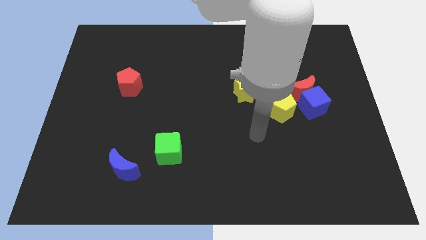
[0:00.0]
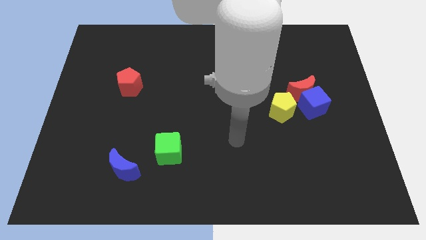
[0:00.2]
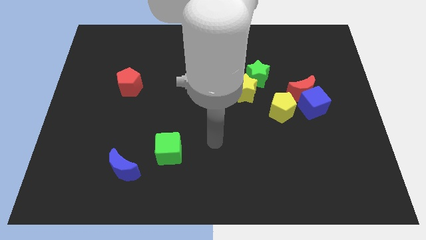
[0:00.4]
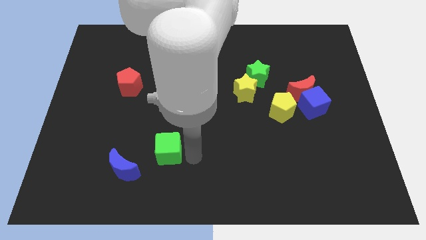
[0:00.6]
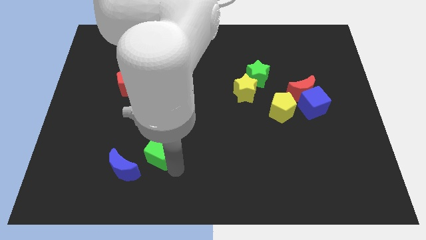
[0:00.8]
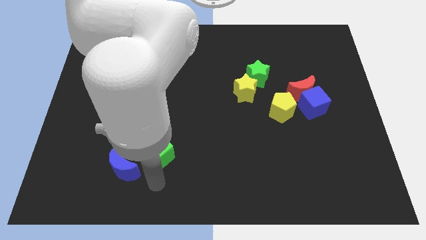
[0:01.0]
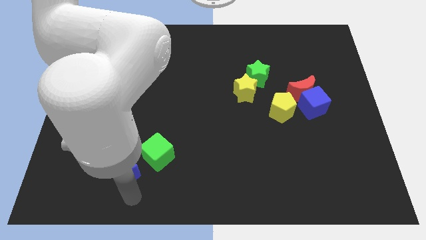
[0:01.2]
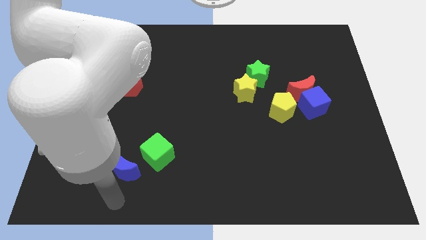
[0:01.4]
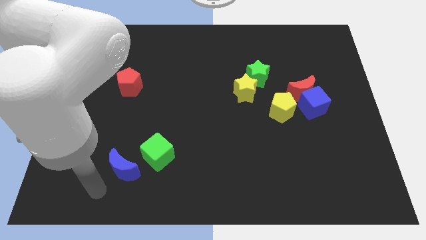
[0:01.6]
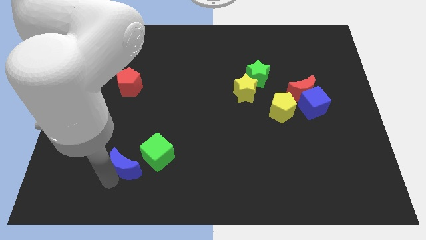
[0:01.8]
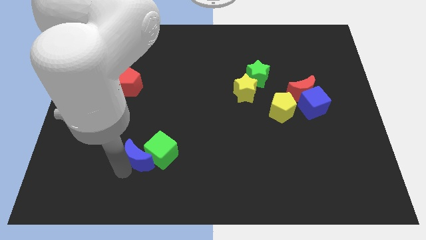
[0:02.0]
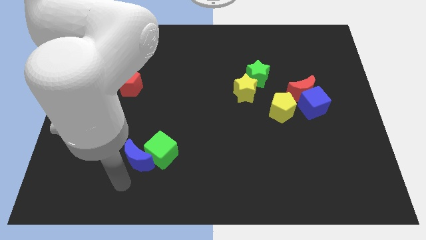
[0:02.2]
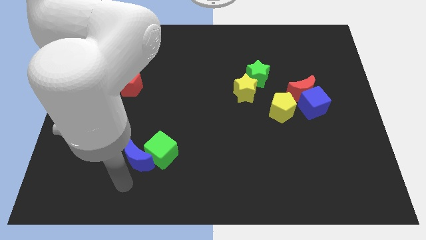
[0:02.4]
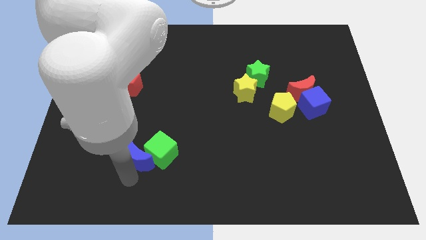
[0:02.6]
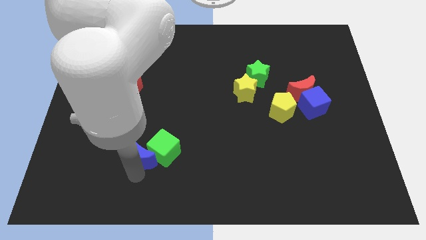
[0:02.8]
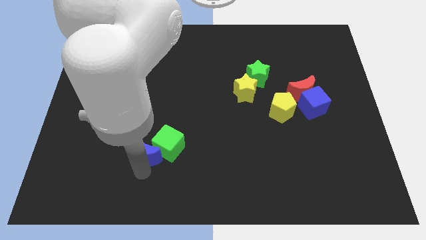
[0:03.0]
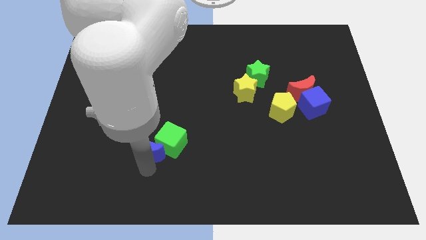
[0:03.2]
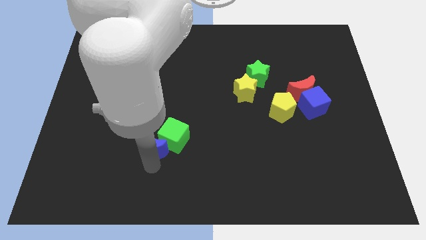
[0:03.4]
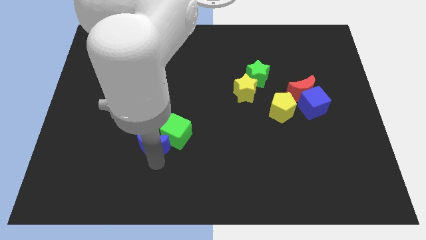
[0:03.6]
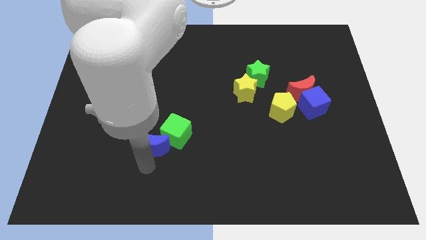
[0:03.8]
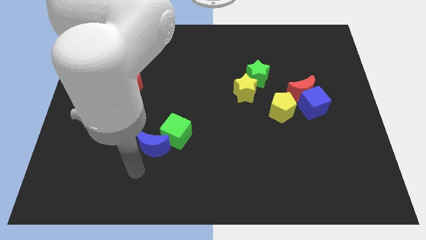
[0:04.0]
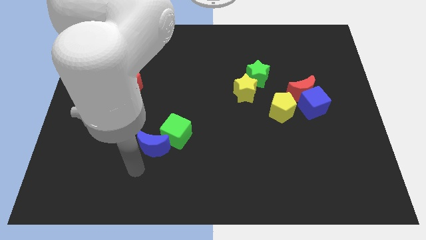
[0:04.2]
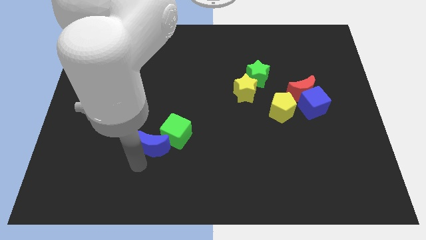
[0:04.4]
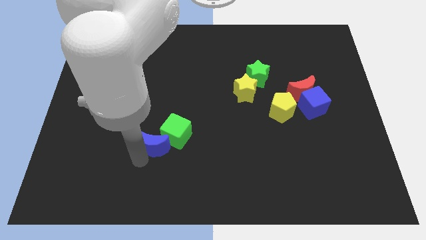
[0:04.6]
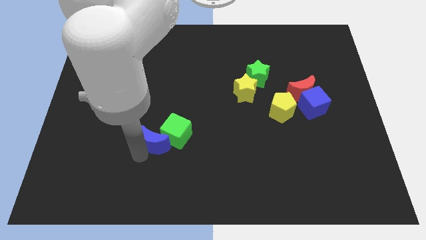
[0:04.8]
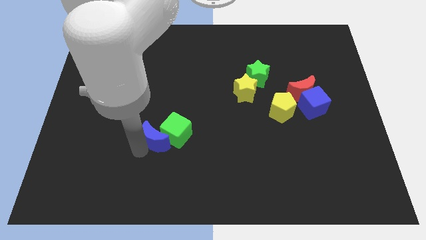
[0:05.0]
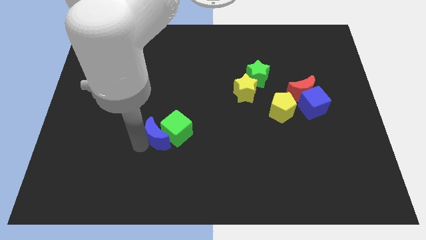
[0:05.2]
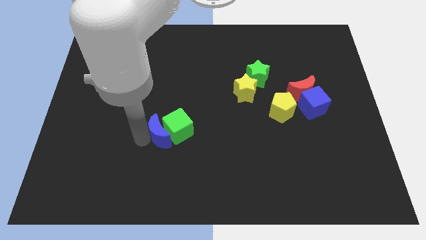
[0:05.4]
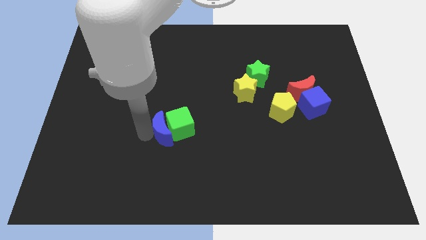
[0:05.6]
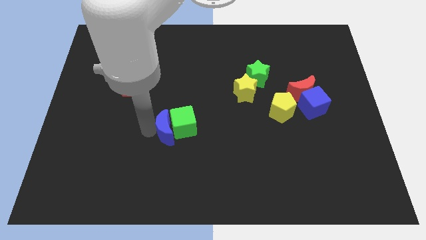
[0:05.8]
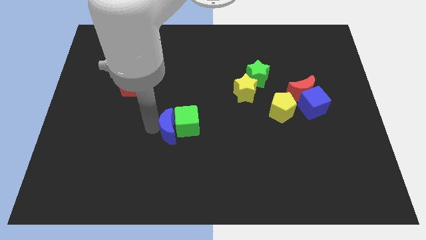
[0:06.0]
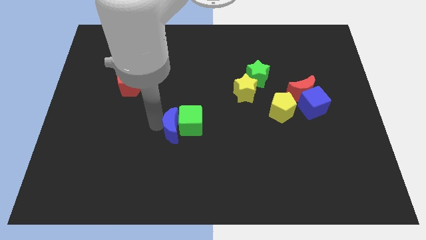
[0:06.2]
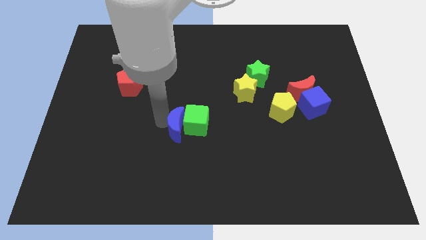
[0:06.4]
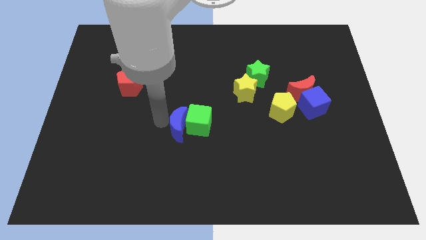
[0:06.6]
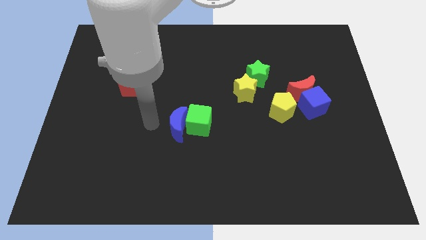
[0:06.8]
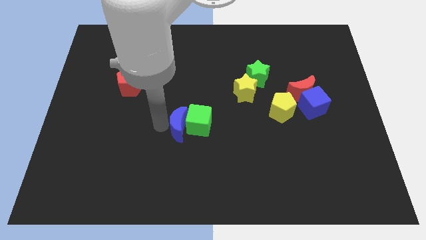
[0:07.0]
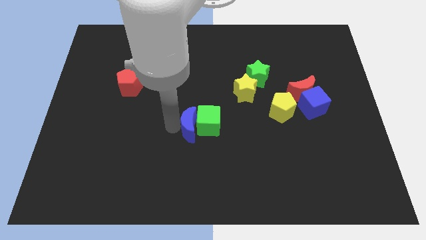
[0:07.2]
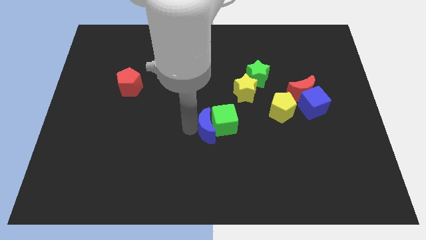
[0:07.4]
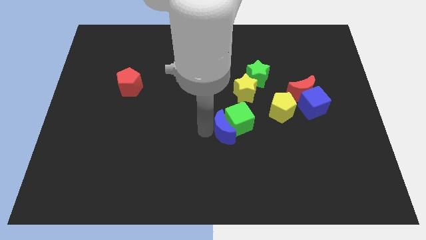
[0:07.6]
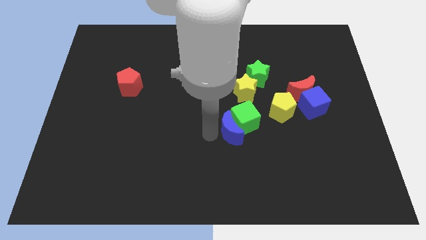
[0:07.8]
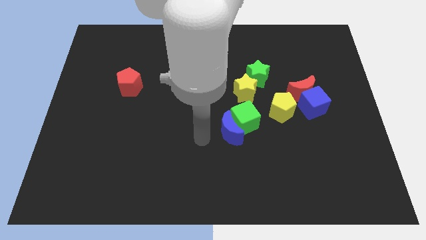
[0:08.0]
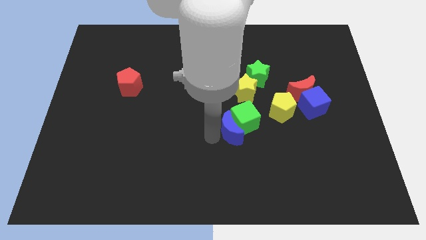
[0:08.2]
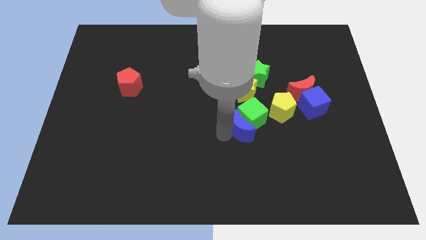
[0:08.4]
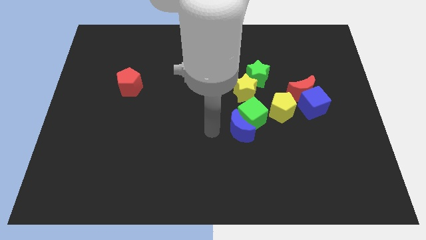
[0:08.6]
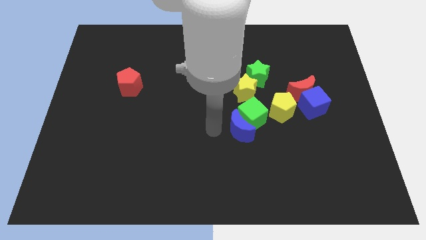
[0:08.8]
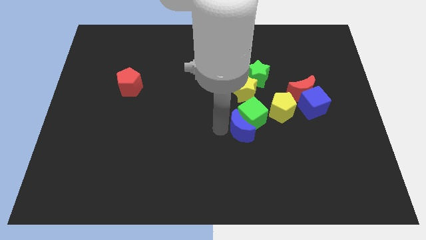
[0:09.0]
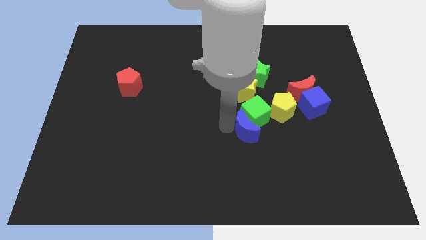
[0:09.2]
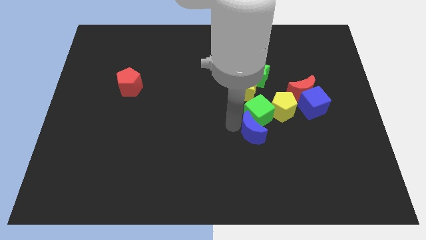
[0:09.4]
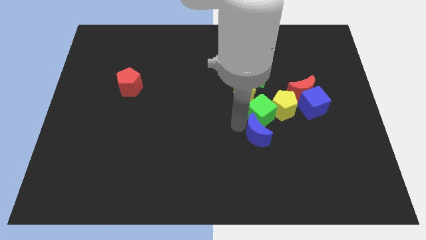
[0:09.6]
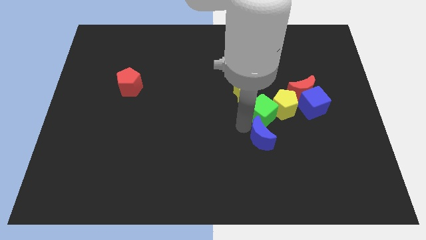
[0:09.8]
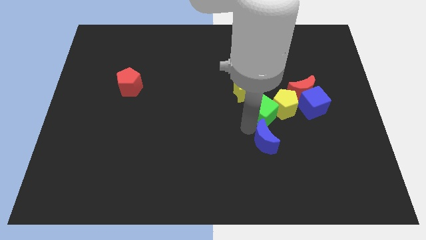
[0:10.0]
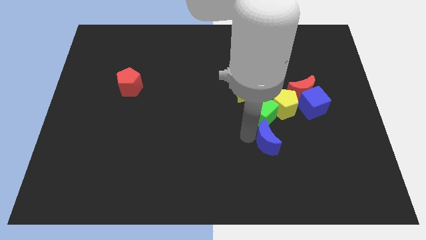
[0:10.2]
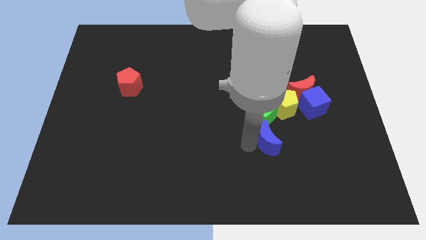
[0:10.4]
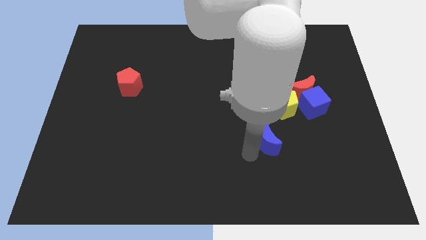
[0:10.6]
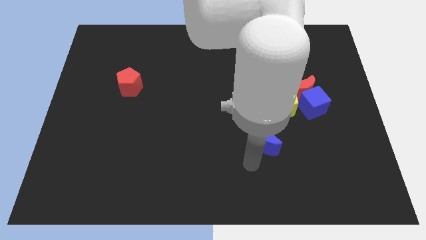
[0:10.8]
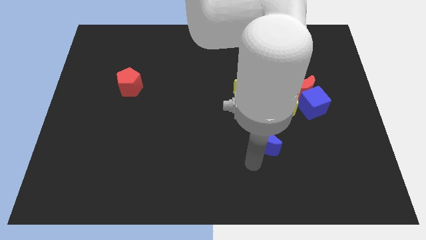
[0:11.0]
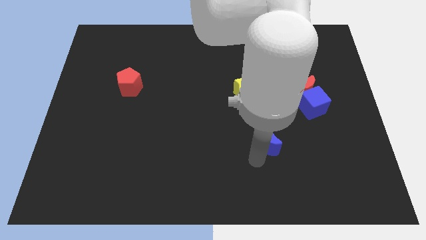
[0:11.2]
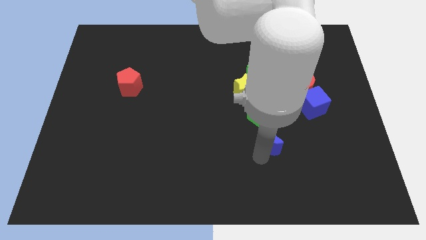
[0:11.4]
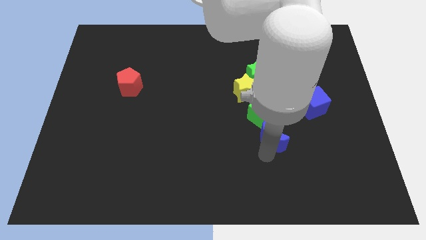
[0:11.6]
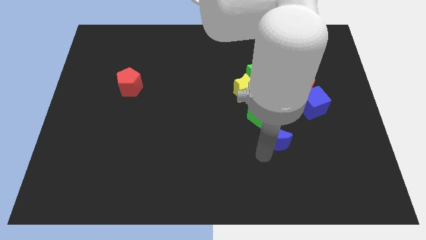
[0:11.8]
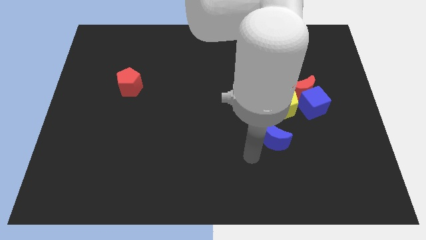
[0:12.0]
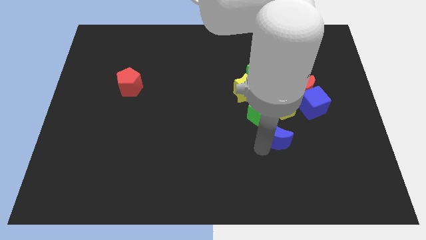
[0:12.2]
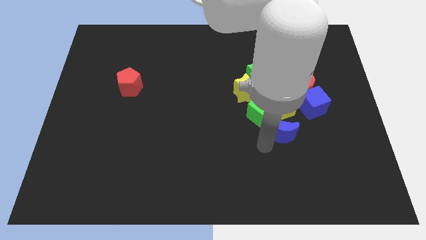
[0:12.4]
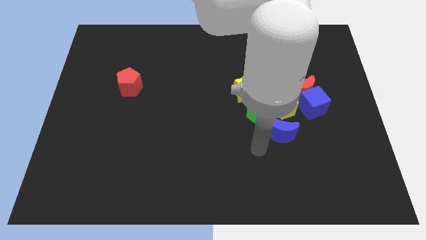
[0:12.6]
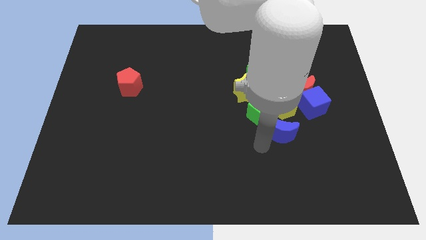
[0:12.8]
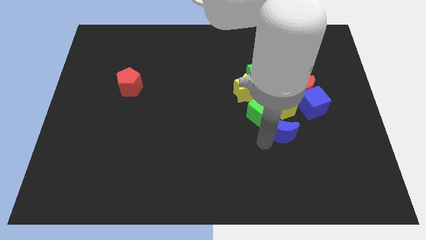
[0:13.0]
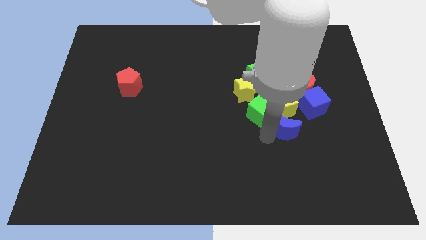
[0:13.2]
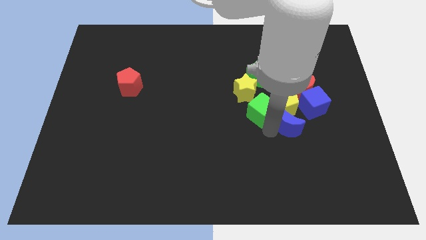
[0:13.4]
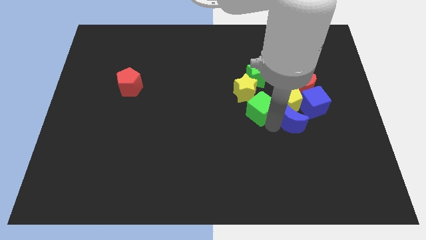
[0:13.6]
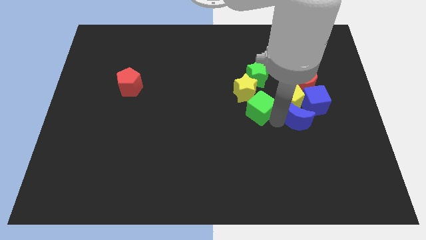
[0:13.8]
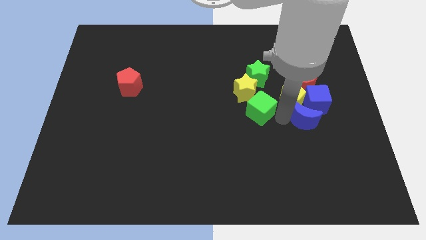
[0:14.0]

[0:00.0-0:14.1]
slide the blue moon towards the blue cube

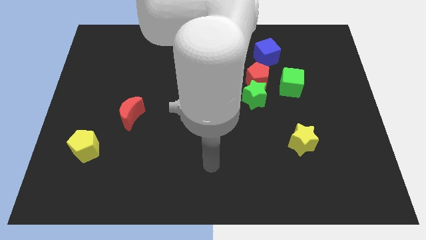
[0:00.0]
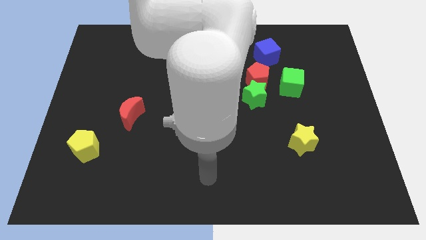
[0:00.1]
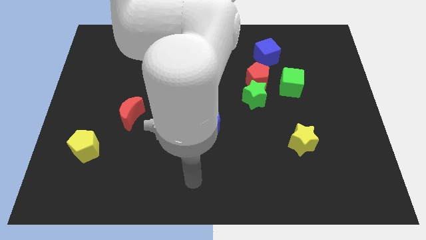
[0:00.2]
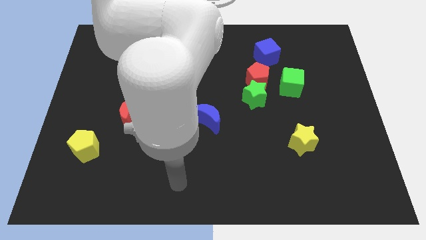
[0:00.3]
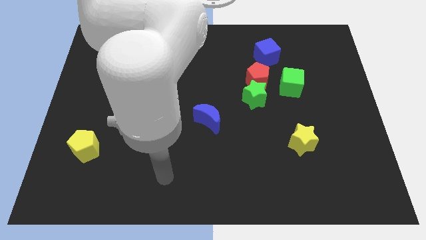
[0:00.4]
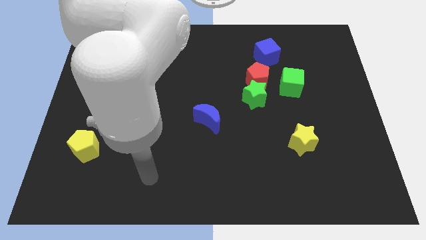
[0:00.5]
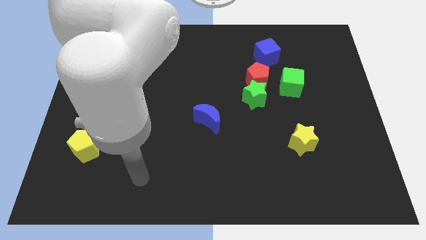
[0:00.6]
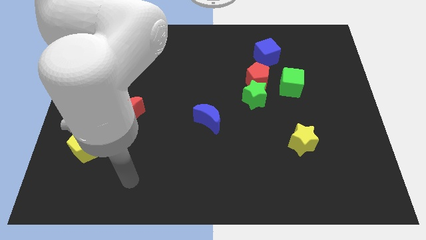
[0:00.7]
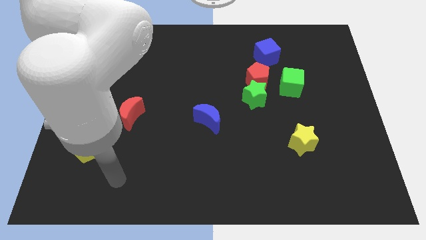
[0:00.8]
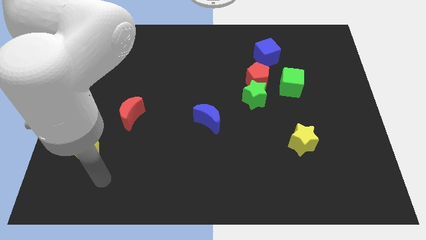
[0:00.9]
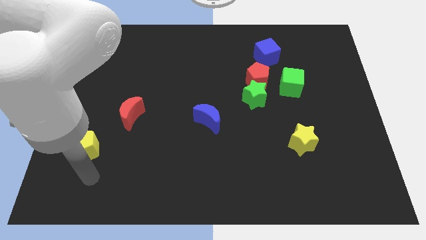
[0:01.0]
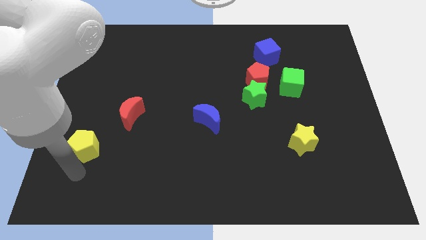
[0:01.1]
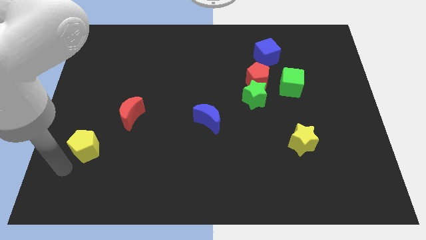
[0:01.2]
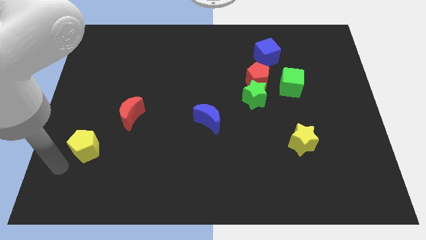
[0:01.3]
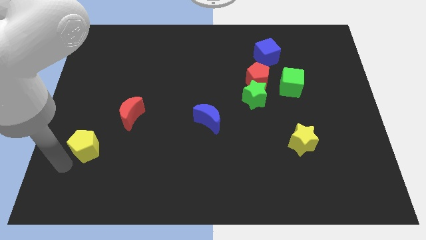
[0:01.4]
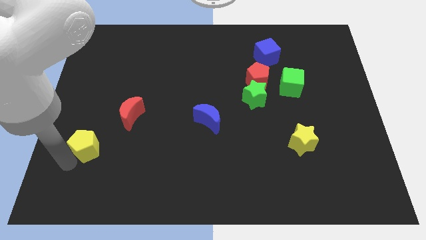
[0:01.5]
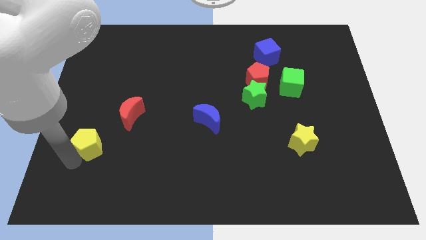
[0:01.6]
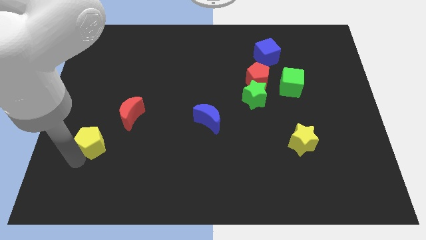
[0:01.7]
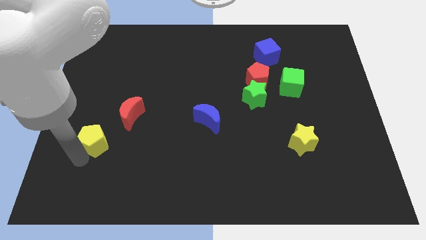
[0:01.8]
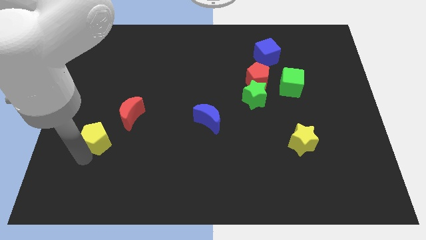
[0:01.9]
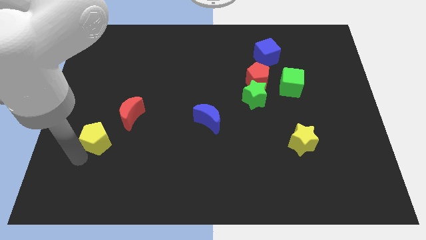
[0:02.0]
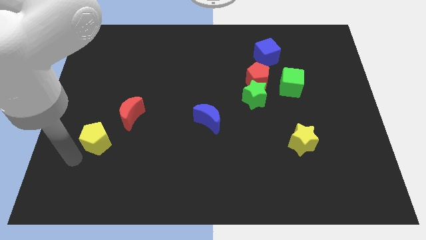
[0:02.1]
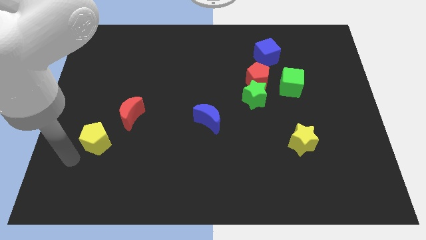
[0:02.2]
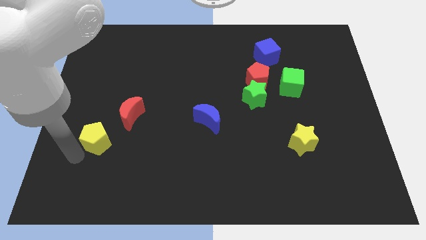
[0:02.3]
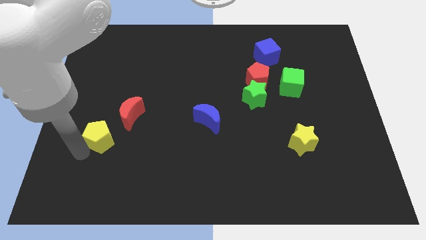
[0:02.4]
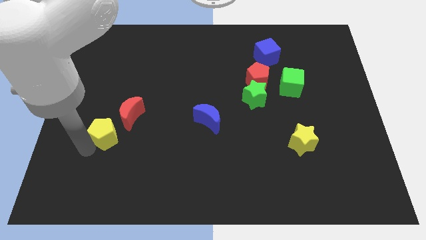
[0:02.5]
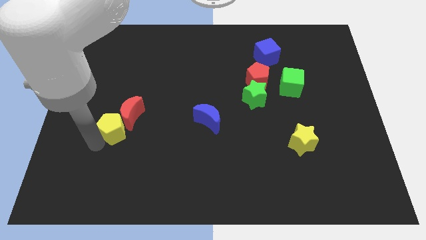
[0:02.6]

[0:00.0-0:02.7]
put the yellow pentagon to the red moon
